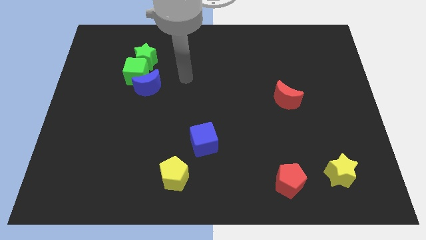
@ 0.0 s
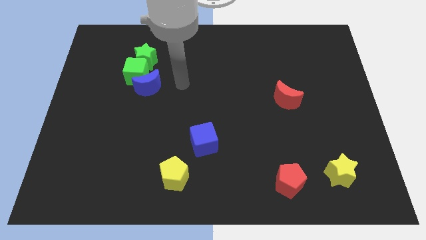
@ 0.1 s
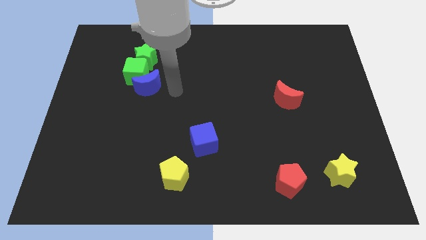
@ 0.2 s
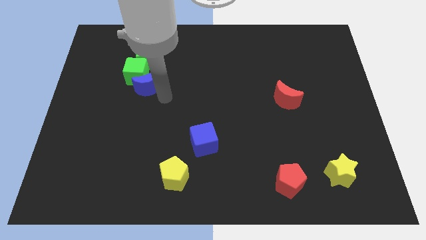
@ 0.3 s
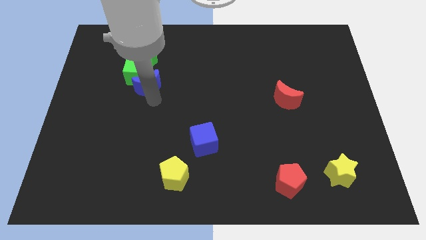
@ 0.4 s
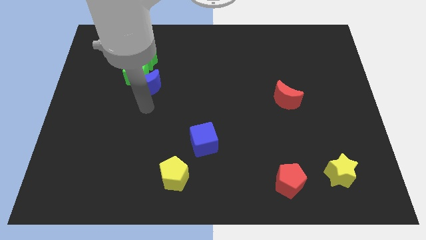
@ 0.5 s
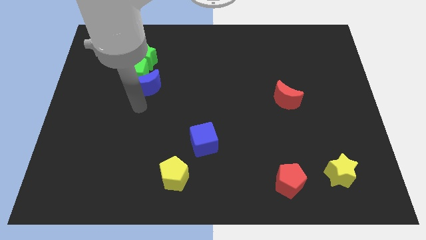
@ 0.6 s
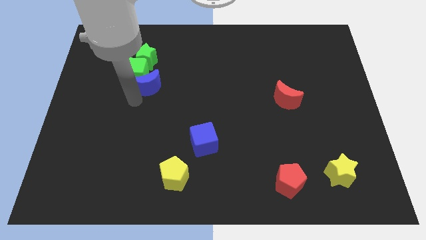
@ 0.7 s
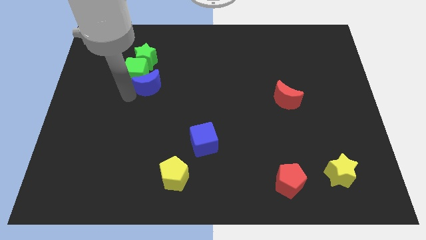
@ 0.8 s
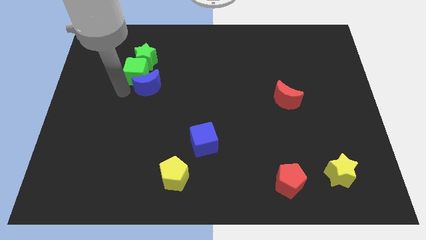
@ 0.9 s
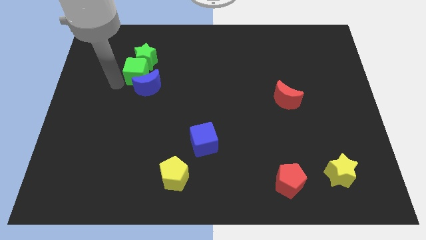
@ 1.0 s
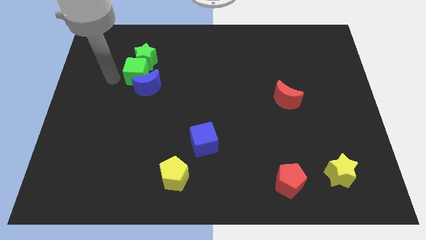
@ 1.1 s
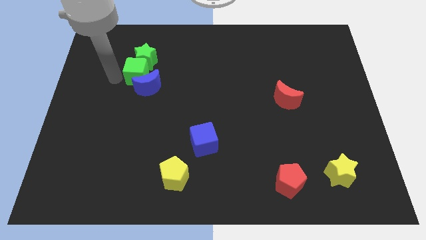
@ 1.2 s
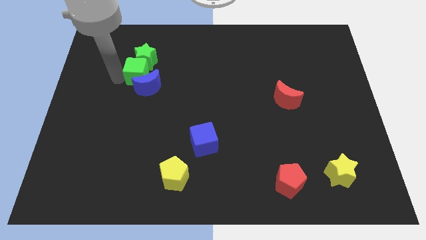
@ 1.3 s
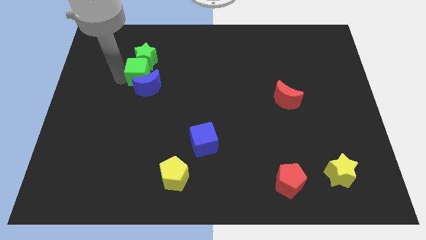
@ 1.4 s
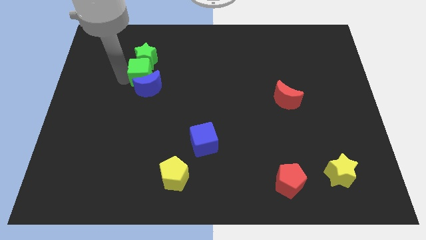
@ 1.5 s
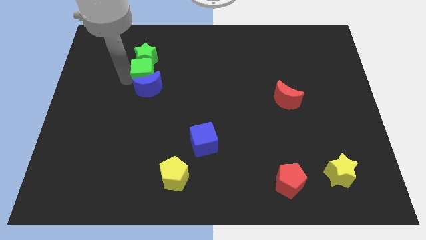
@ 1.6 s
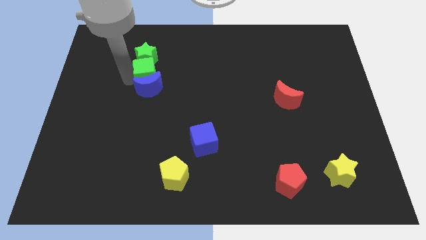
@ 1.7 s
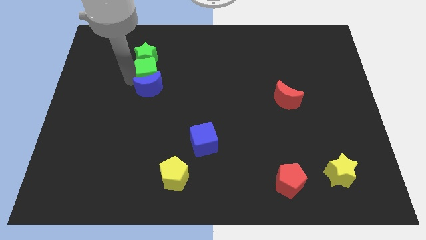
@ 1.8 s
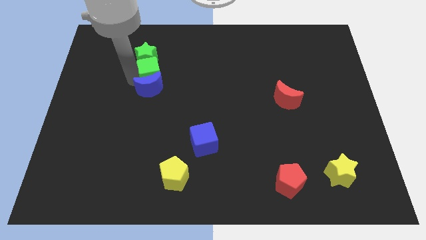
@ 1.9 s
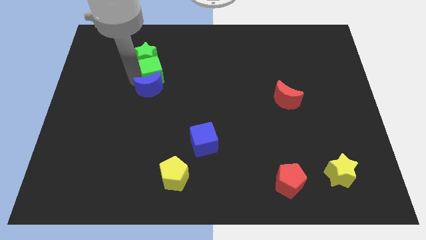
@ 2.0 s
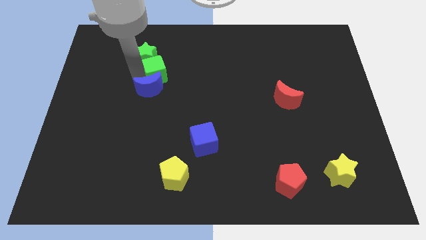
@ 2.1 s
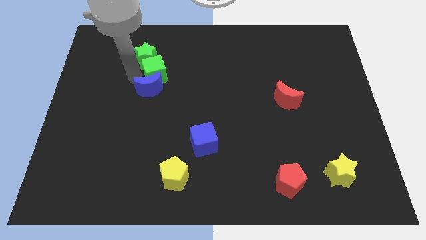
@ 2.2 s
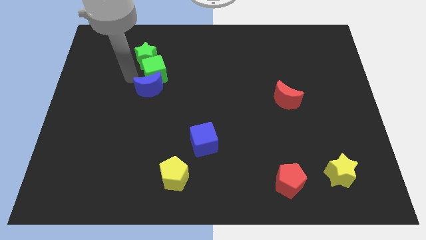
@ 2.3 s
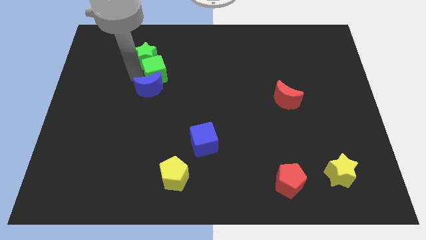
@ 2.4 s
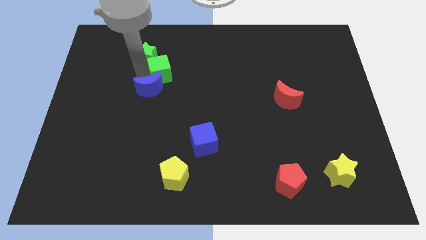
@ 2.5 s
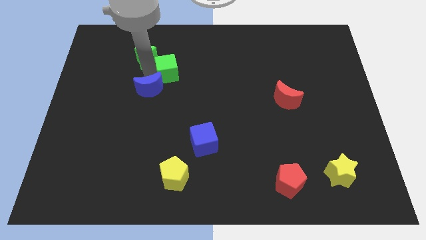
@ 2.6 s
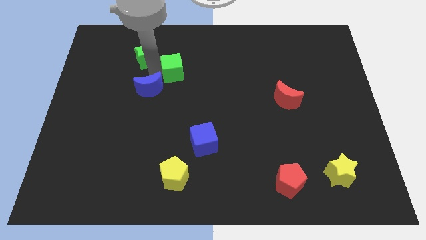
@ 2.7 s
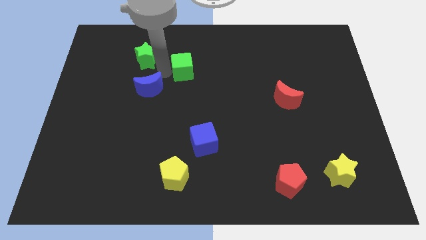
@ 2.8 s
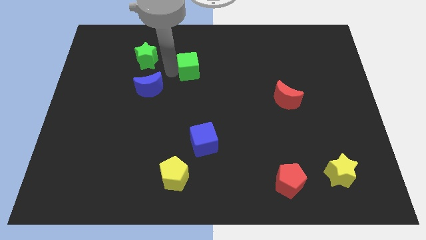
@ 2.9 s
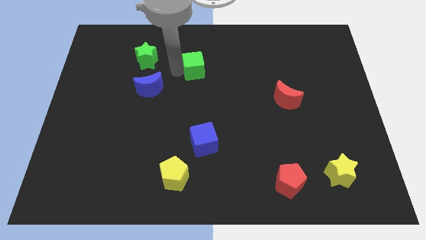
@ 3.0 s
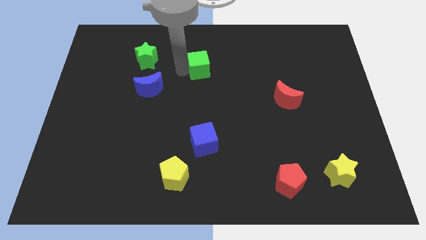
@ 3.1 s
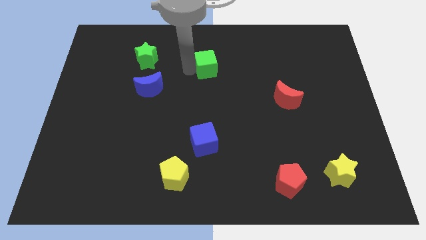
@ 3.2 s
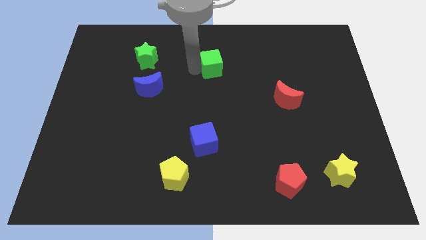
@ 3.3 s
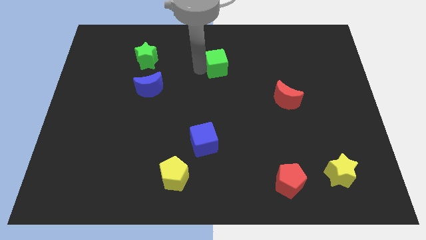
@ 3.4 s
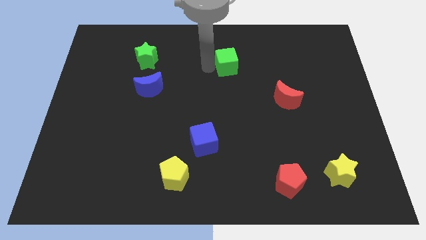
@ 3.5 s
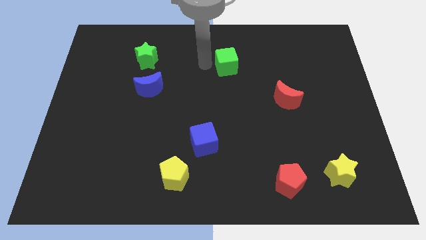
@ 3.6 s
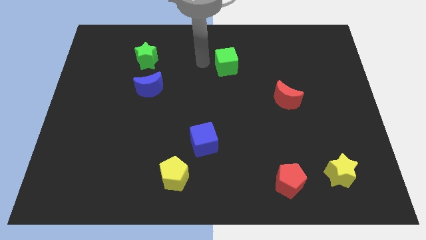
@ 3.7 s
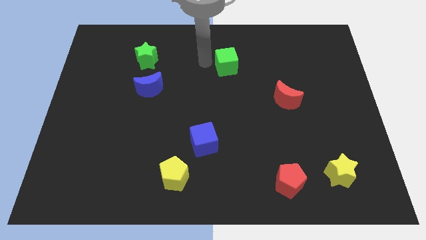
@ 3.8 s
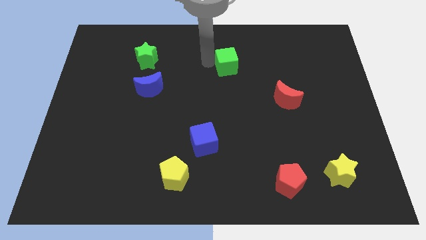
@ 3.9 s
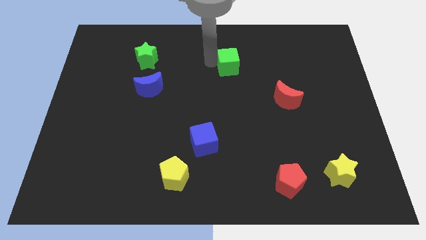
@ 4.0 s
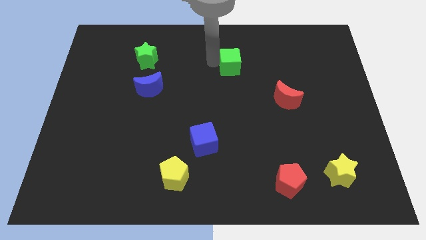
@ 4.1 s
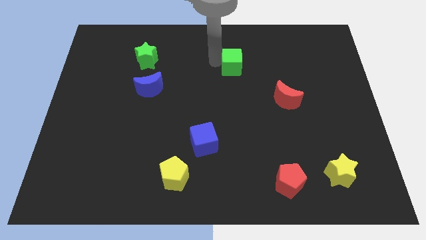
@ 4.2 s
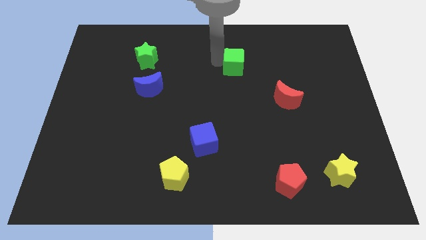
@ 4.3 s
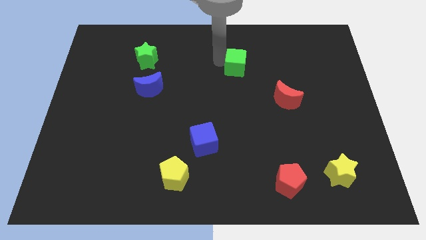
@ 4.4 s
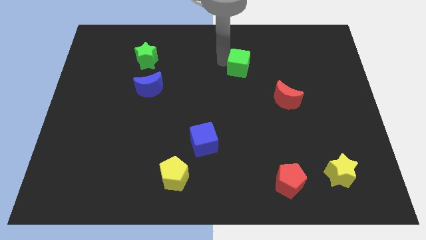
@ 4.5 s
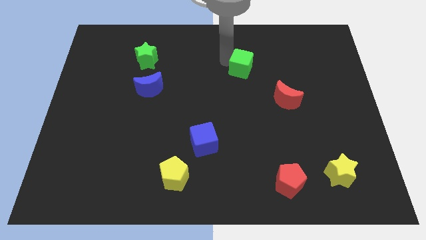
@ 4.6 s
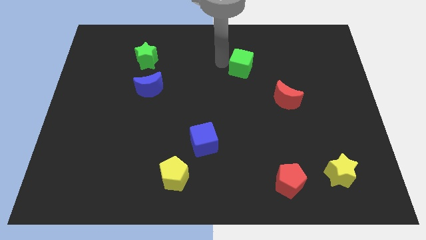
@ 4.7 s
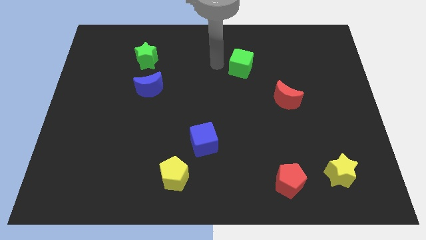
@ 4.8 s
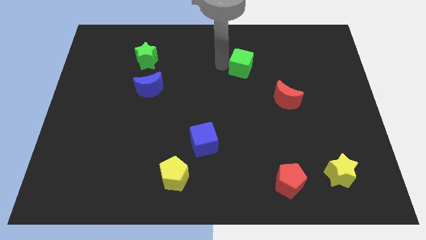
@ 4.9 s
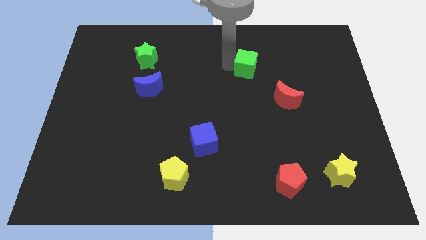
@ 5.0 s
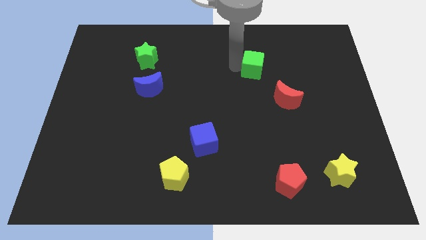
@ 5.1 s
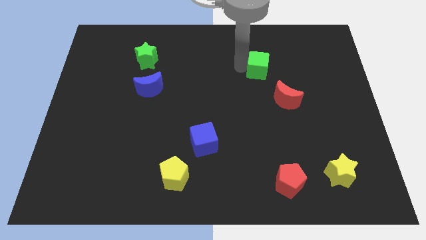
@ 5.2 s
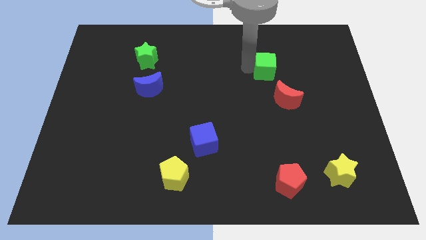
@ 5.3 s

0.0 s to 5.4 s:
slide the green cube to the top of the red moon

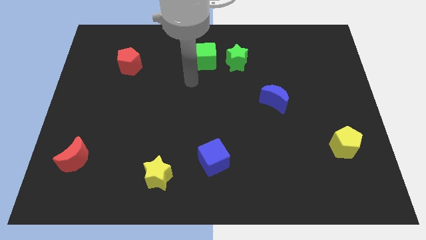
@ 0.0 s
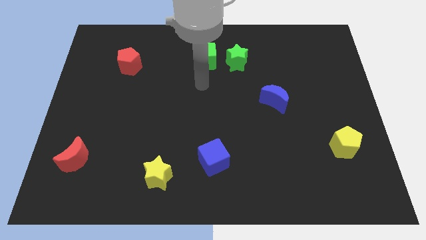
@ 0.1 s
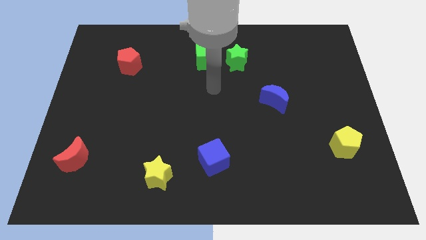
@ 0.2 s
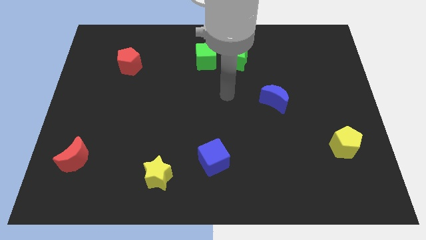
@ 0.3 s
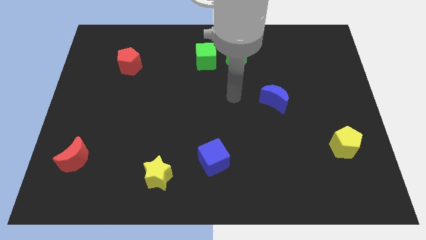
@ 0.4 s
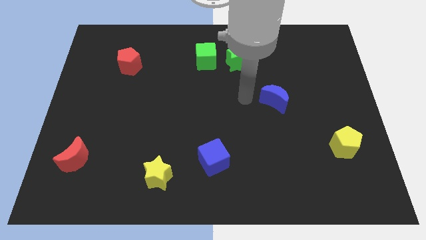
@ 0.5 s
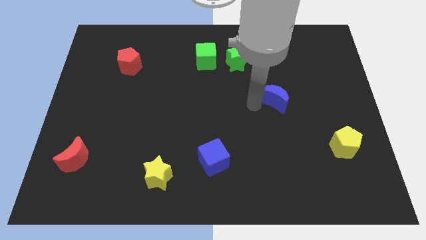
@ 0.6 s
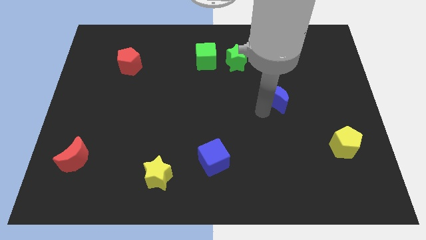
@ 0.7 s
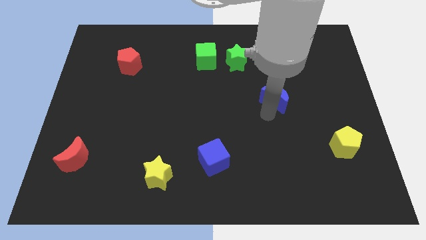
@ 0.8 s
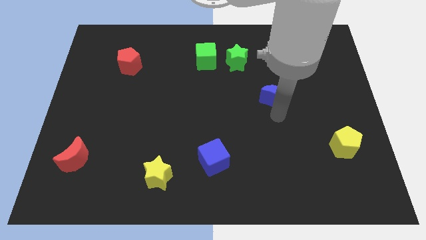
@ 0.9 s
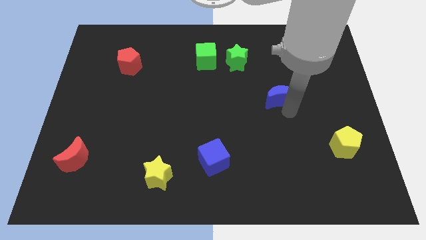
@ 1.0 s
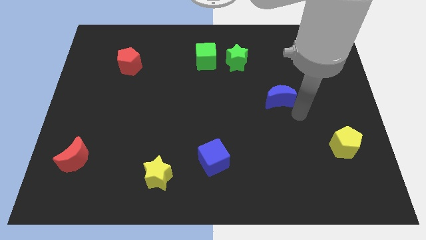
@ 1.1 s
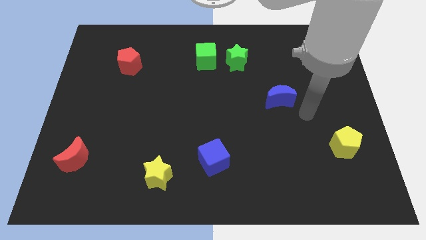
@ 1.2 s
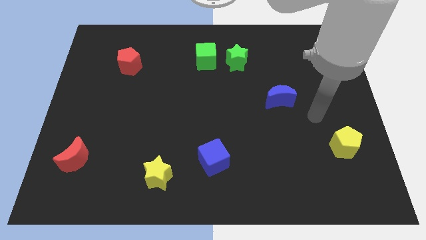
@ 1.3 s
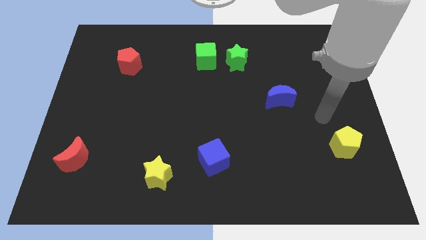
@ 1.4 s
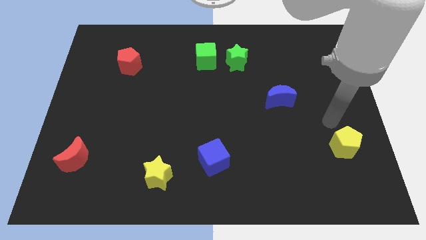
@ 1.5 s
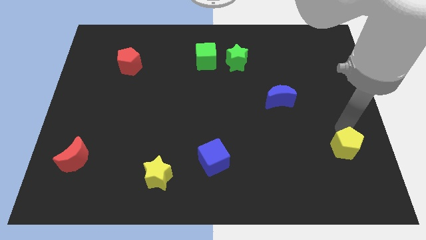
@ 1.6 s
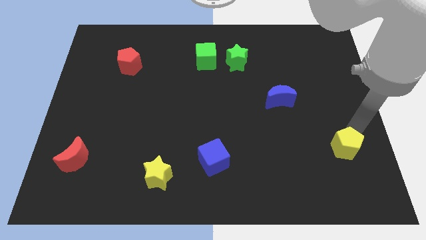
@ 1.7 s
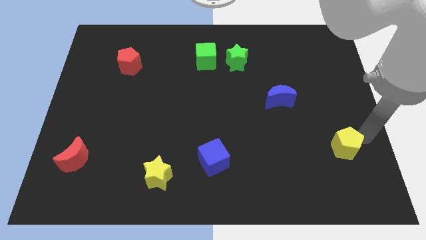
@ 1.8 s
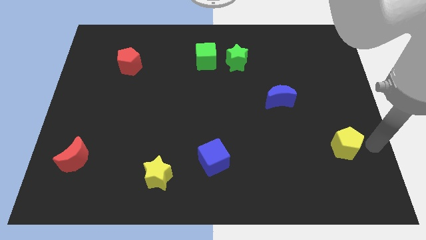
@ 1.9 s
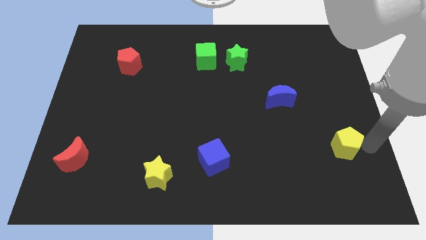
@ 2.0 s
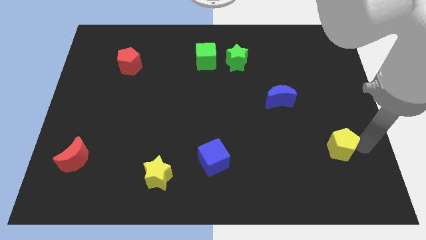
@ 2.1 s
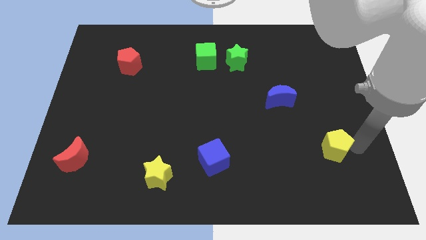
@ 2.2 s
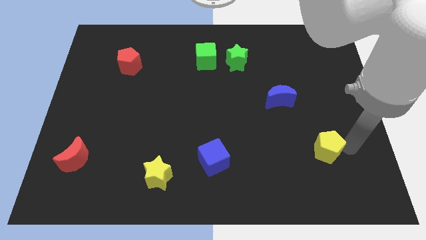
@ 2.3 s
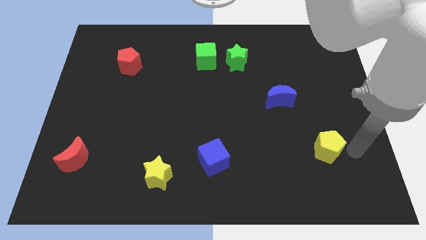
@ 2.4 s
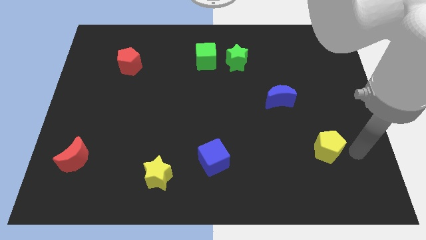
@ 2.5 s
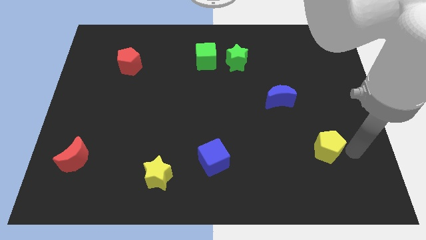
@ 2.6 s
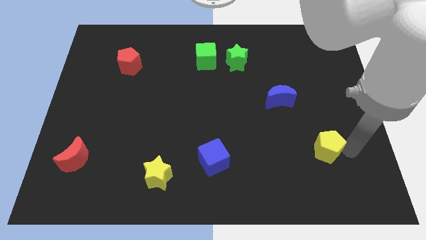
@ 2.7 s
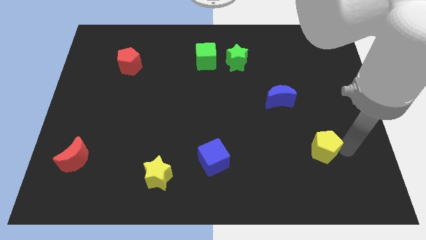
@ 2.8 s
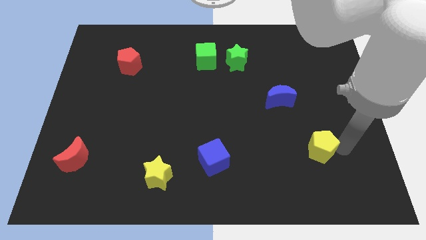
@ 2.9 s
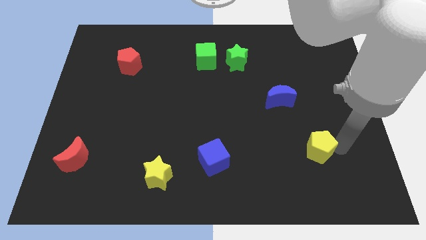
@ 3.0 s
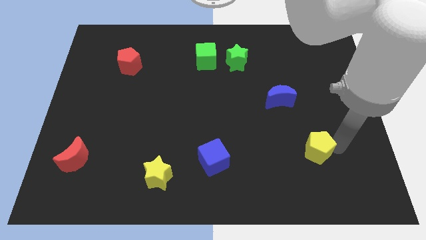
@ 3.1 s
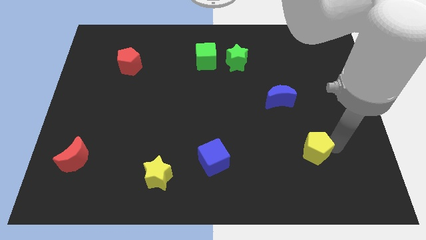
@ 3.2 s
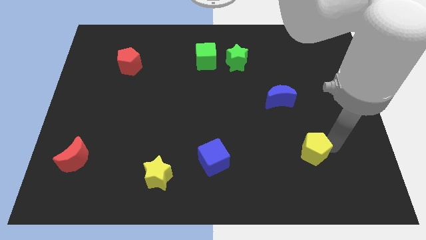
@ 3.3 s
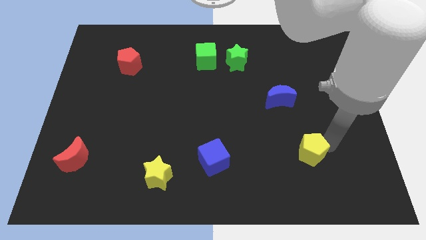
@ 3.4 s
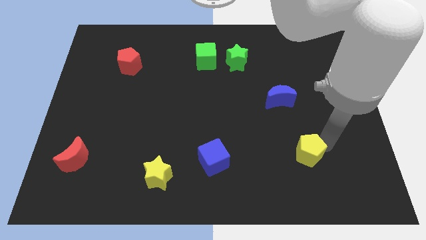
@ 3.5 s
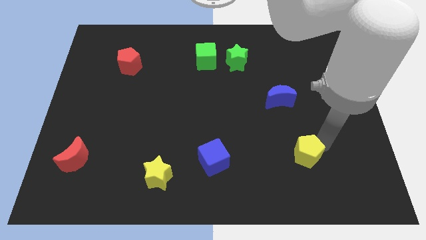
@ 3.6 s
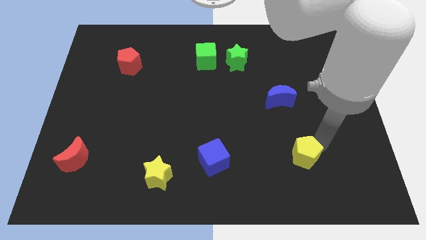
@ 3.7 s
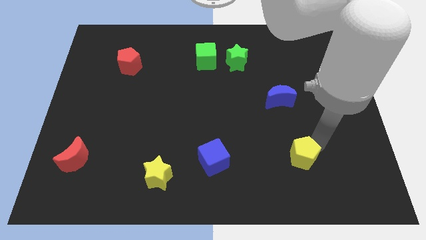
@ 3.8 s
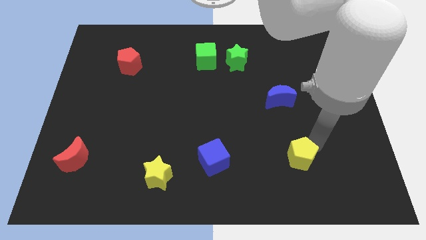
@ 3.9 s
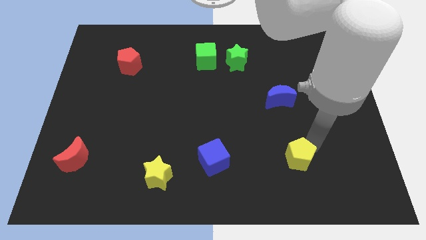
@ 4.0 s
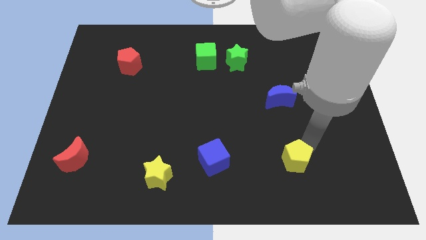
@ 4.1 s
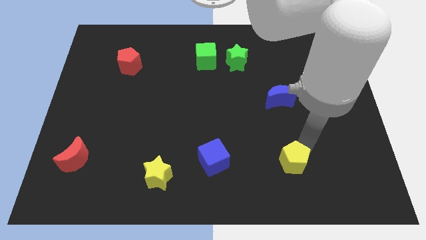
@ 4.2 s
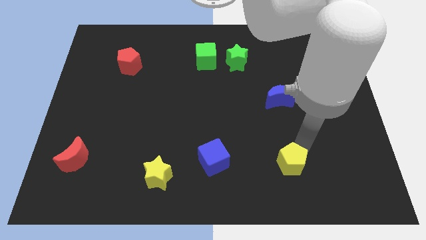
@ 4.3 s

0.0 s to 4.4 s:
move the yellow pentagon to the right side of the blue cube
